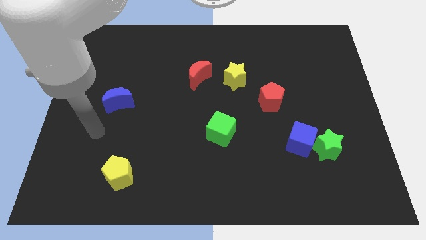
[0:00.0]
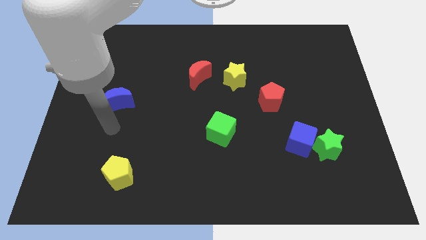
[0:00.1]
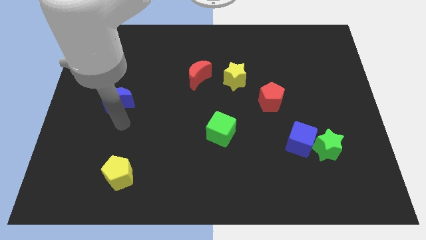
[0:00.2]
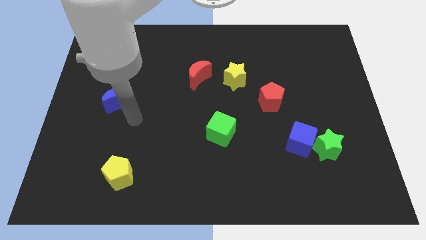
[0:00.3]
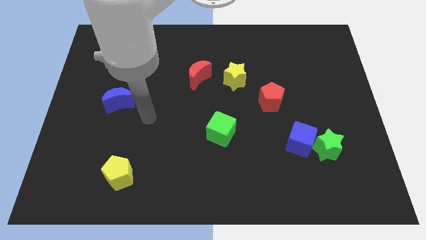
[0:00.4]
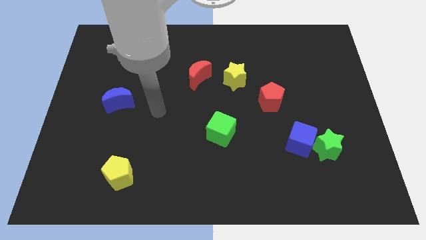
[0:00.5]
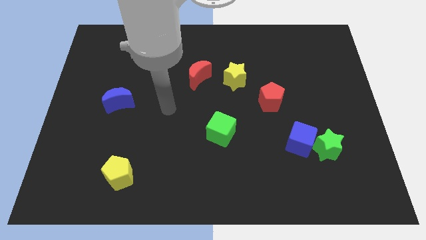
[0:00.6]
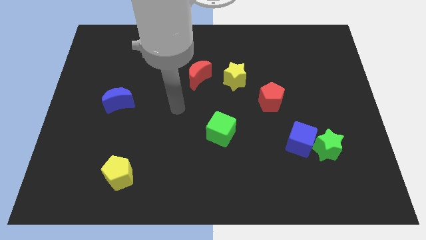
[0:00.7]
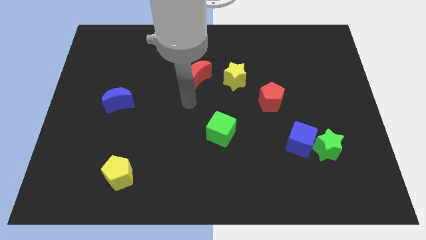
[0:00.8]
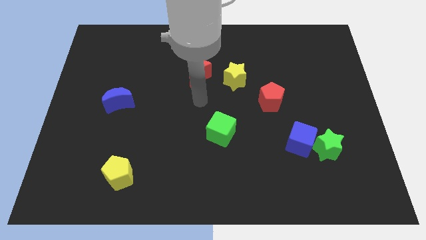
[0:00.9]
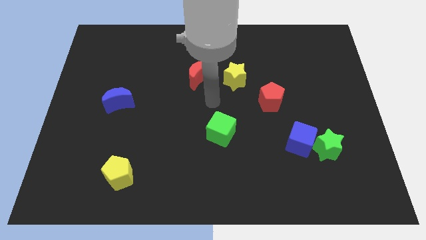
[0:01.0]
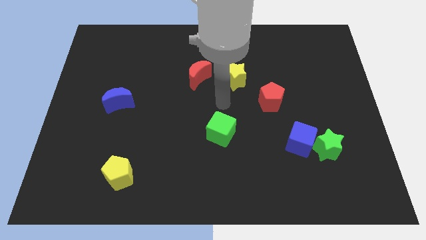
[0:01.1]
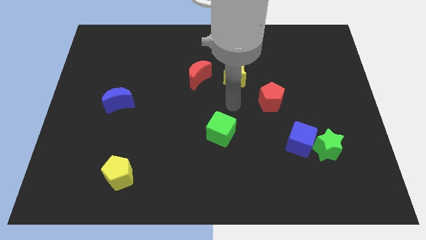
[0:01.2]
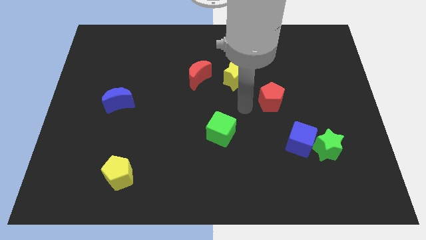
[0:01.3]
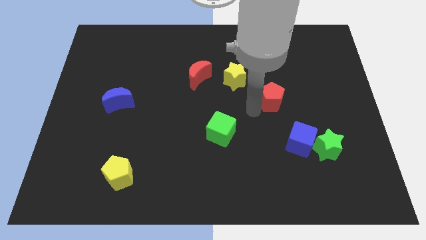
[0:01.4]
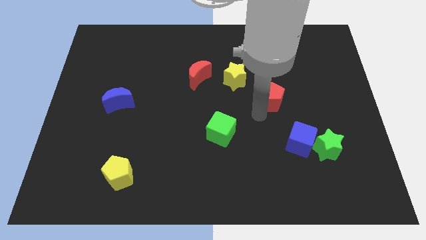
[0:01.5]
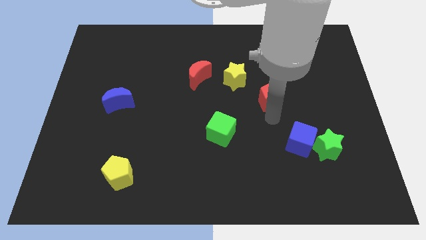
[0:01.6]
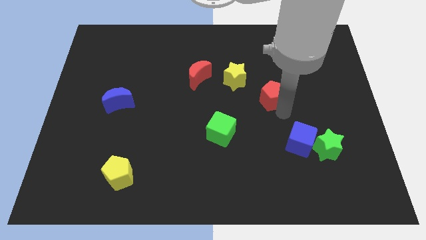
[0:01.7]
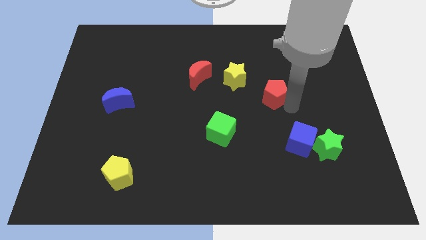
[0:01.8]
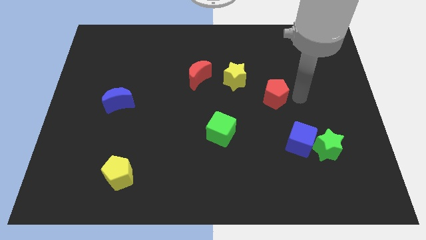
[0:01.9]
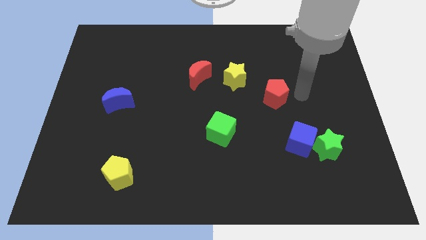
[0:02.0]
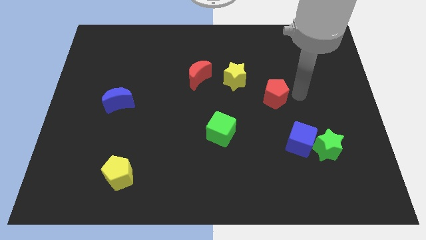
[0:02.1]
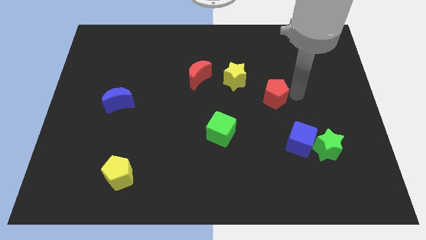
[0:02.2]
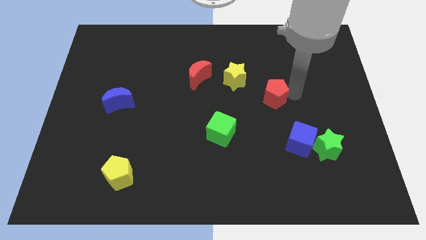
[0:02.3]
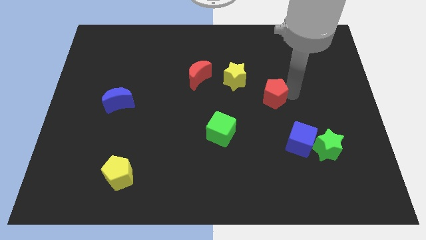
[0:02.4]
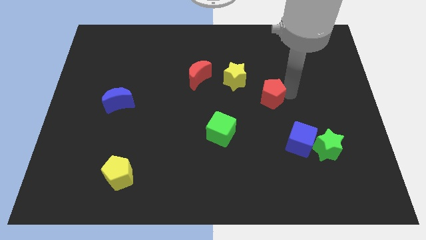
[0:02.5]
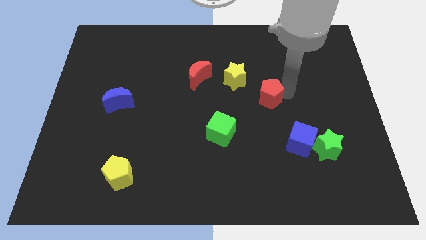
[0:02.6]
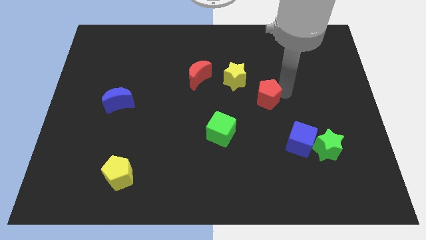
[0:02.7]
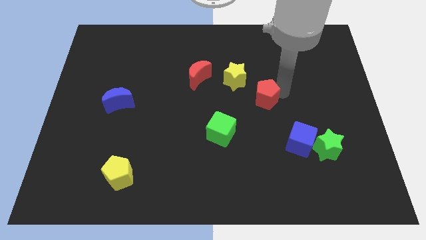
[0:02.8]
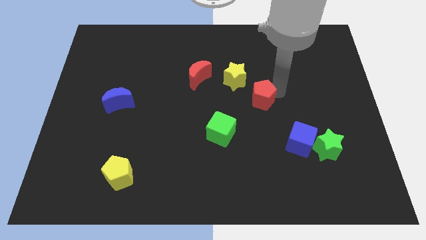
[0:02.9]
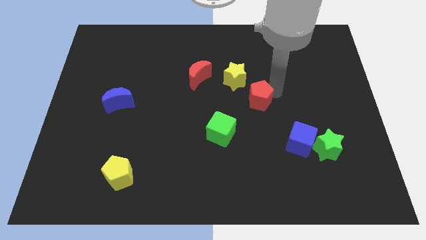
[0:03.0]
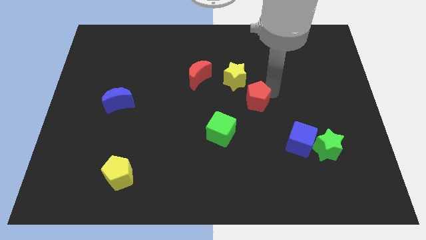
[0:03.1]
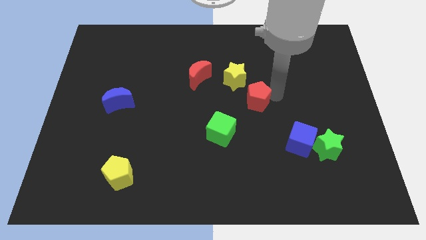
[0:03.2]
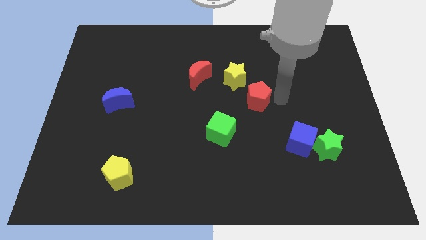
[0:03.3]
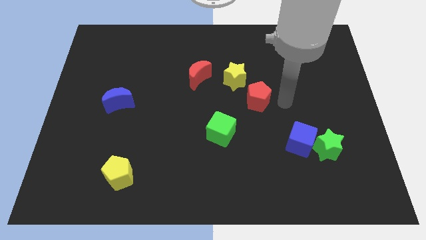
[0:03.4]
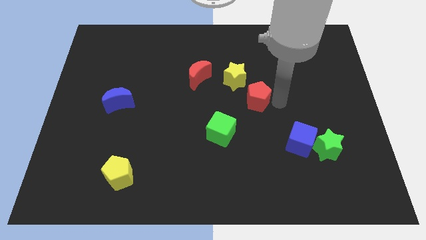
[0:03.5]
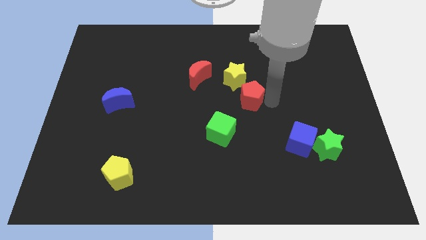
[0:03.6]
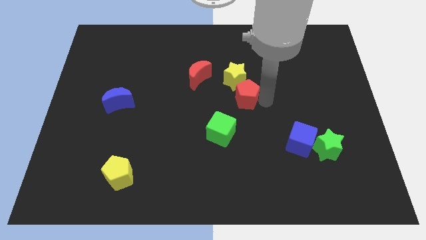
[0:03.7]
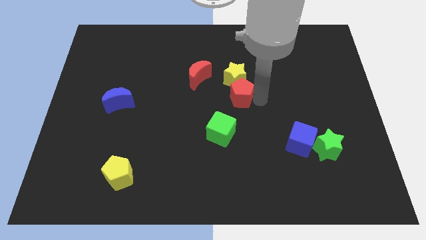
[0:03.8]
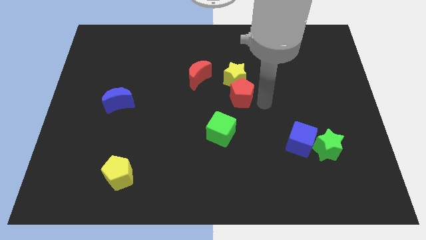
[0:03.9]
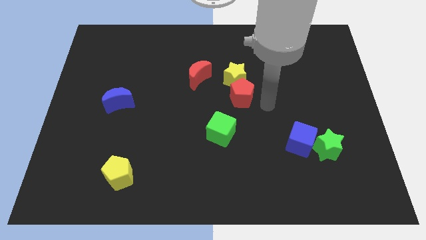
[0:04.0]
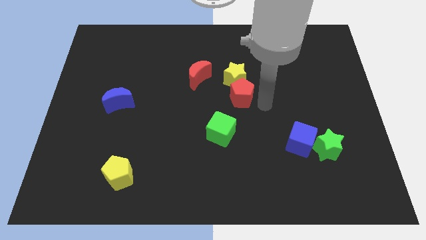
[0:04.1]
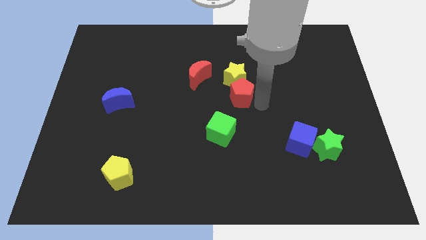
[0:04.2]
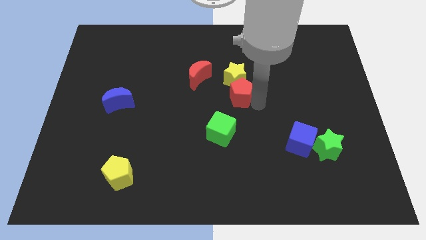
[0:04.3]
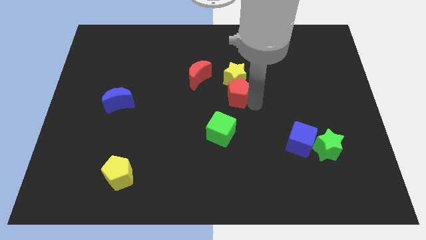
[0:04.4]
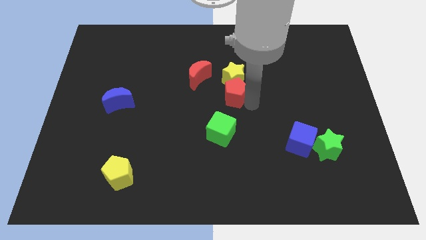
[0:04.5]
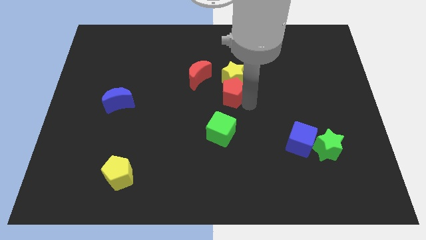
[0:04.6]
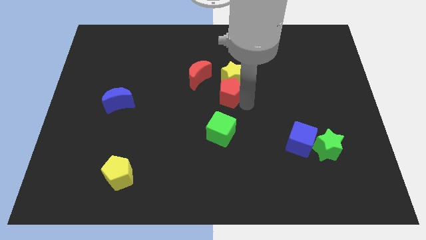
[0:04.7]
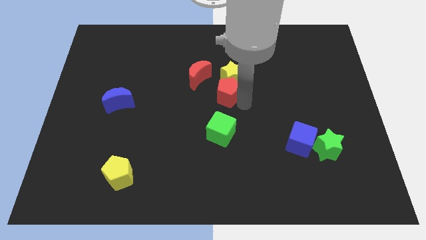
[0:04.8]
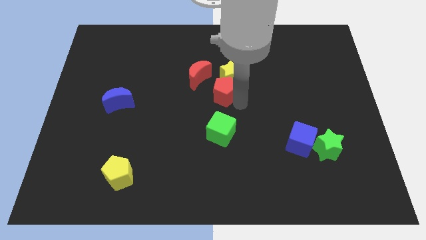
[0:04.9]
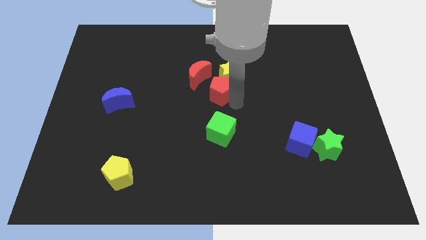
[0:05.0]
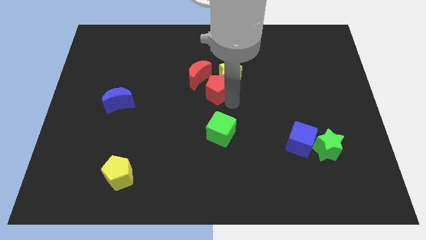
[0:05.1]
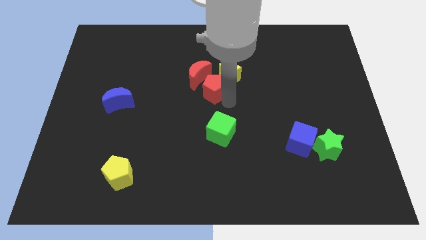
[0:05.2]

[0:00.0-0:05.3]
push the red pentagon next to the red moon

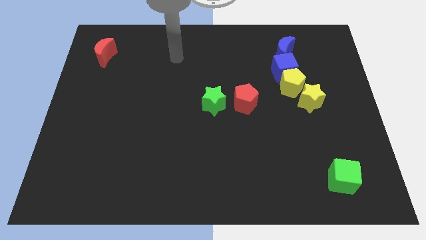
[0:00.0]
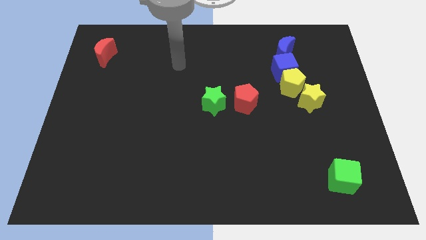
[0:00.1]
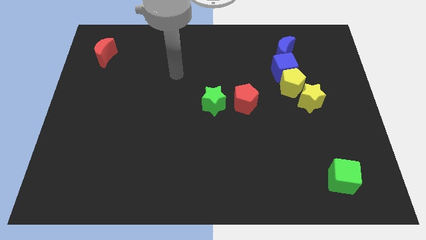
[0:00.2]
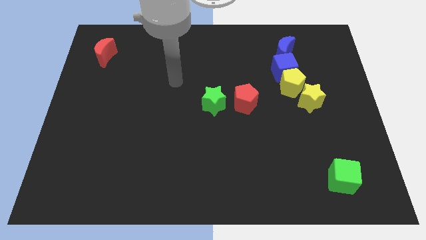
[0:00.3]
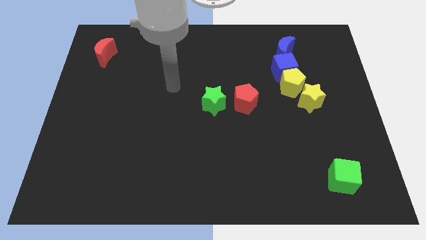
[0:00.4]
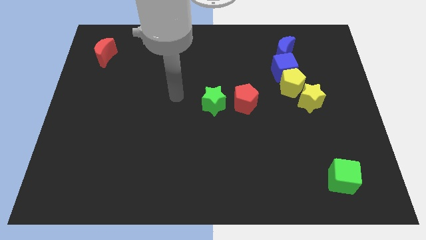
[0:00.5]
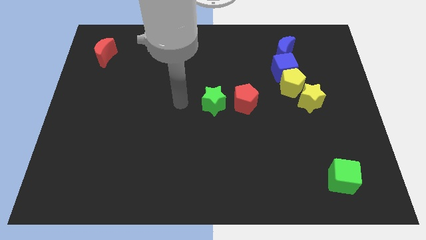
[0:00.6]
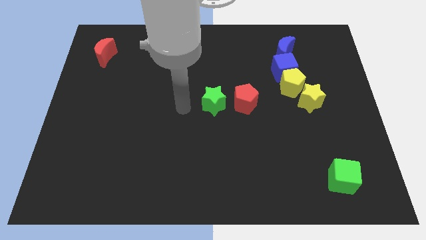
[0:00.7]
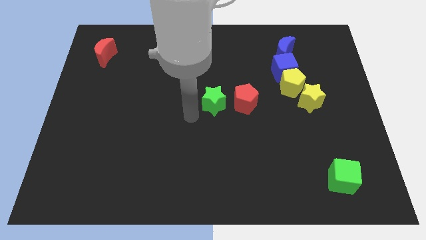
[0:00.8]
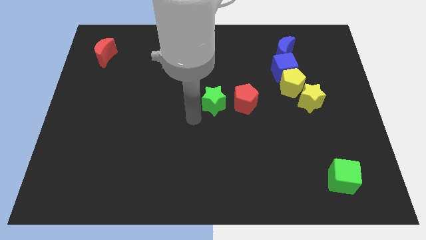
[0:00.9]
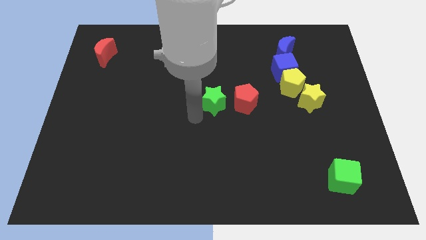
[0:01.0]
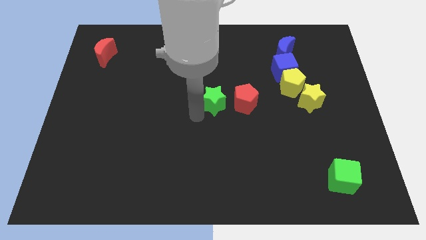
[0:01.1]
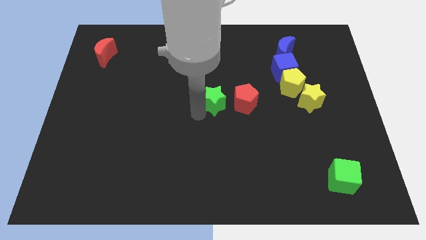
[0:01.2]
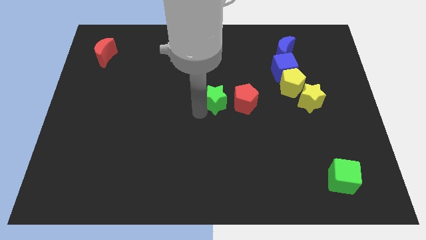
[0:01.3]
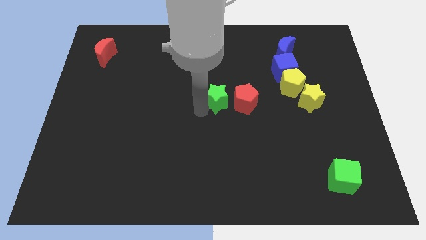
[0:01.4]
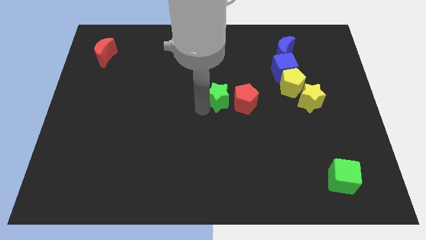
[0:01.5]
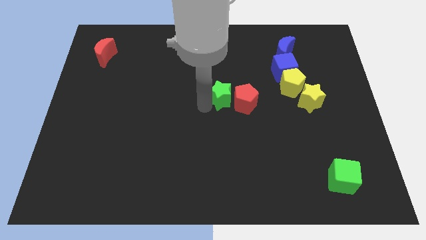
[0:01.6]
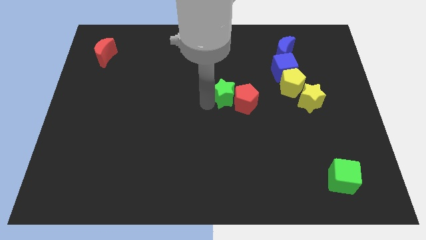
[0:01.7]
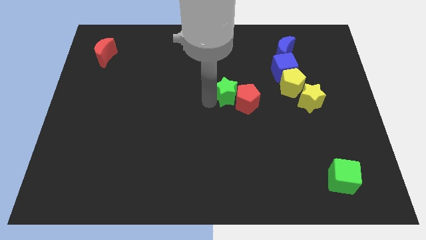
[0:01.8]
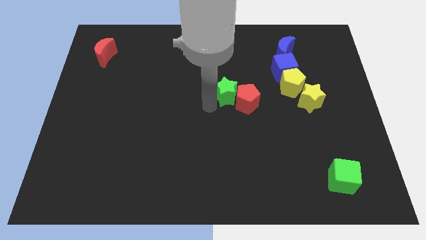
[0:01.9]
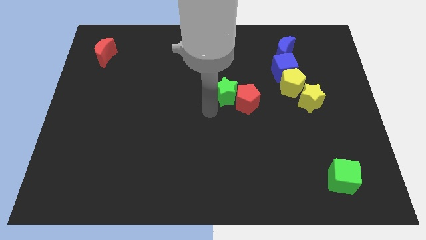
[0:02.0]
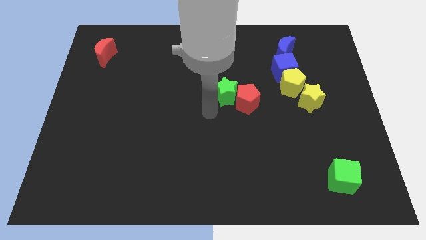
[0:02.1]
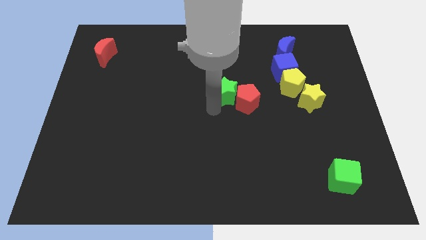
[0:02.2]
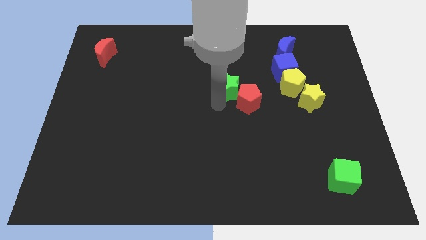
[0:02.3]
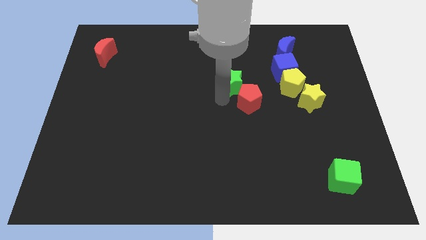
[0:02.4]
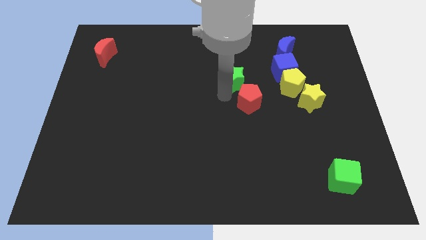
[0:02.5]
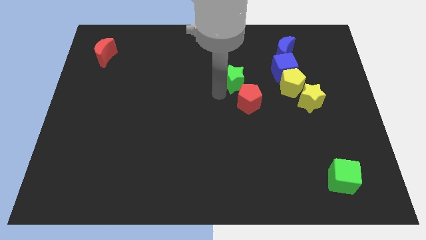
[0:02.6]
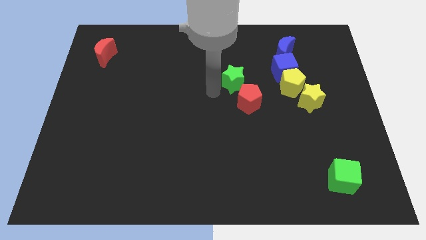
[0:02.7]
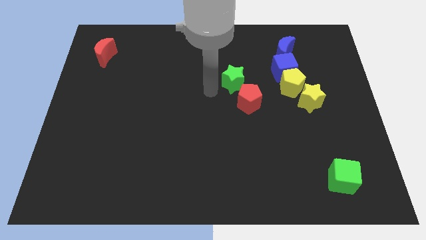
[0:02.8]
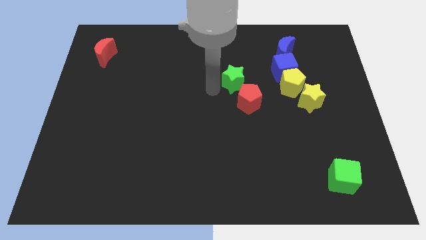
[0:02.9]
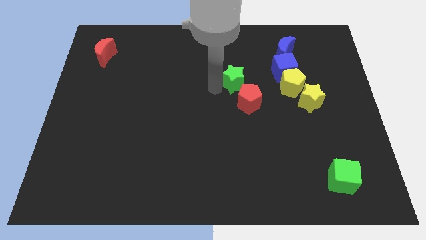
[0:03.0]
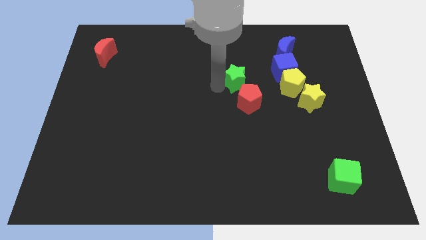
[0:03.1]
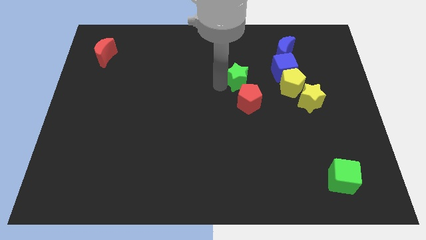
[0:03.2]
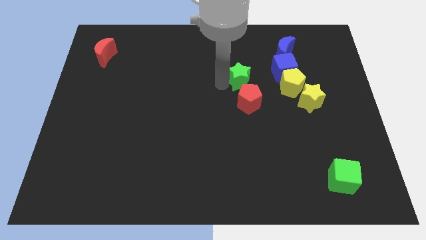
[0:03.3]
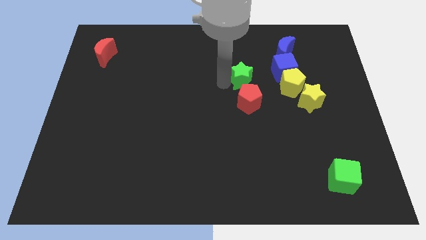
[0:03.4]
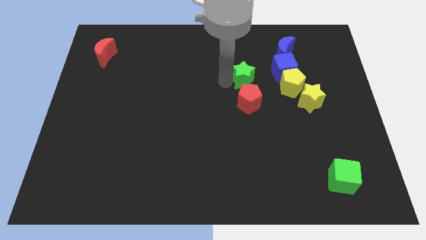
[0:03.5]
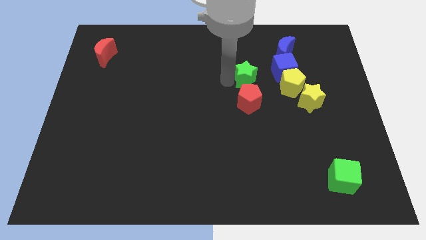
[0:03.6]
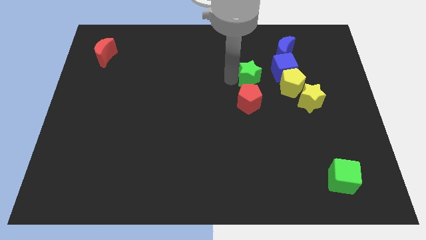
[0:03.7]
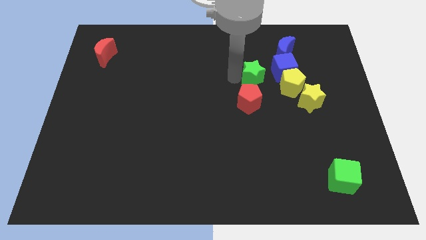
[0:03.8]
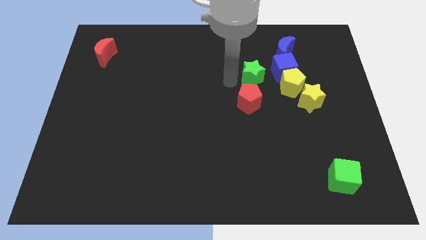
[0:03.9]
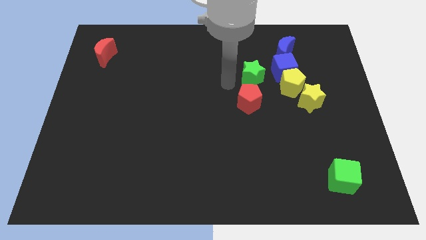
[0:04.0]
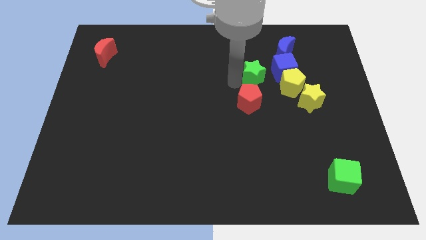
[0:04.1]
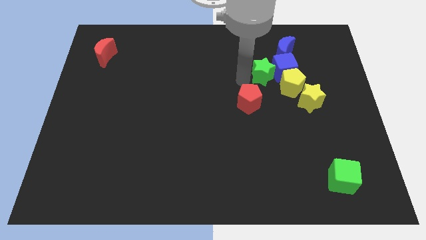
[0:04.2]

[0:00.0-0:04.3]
put the green star to the blue cube
